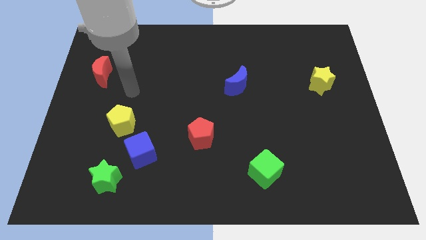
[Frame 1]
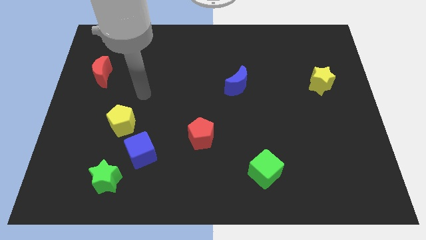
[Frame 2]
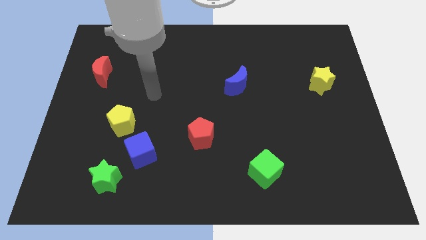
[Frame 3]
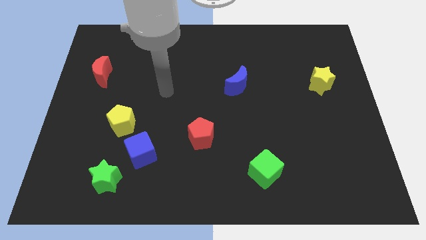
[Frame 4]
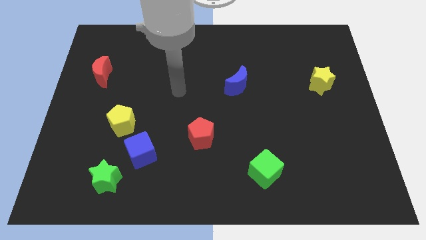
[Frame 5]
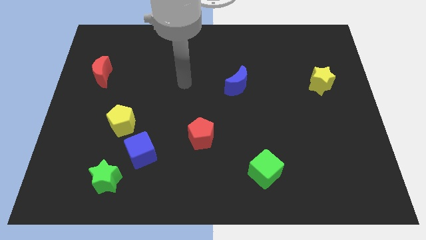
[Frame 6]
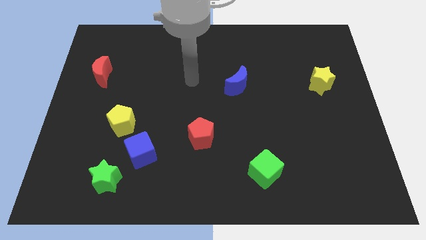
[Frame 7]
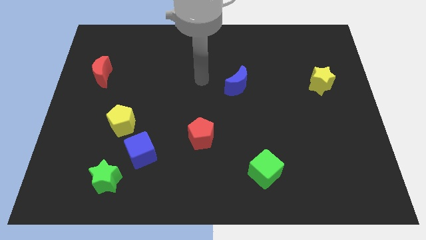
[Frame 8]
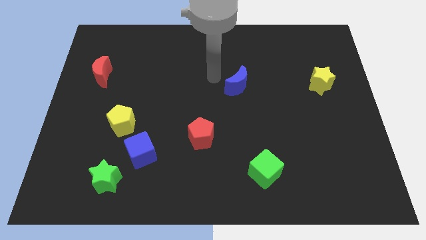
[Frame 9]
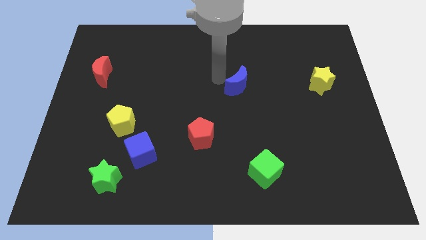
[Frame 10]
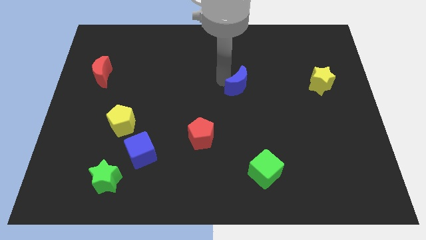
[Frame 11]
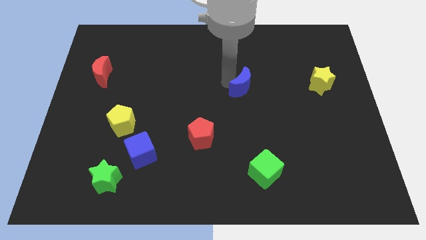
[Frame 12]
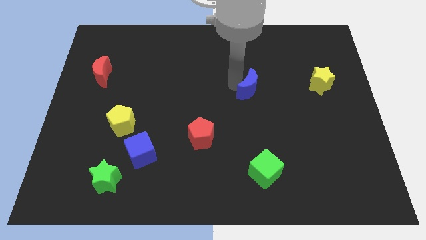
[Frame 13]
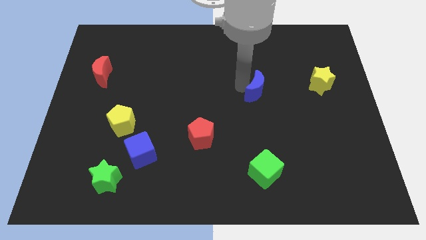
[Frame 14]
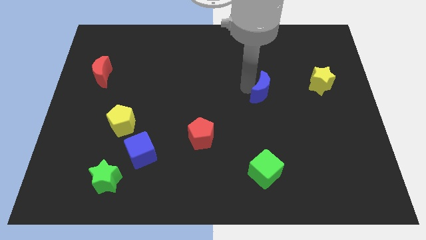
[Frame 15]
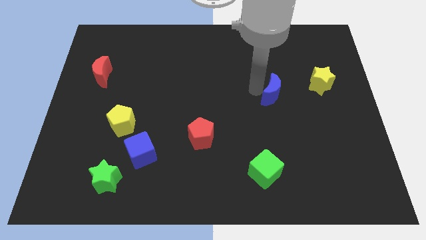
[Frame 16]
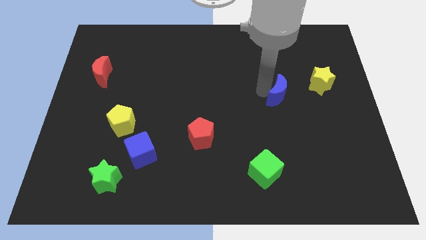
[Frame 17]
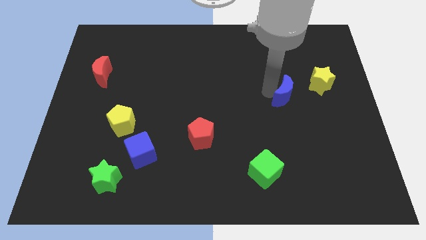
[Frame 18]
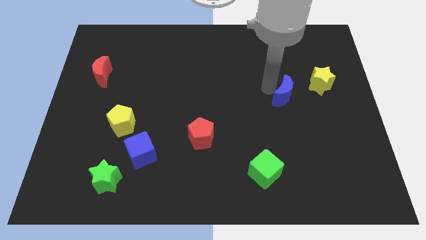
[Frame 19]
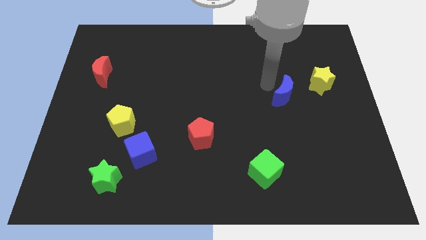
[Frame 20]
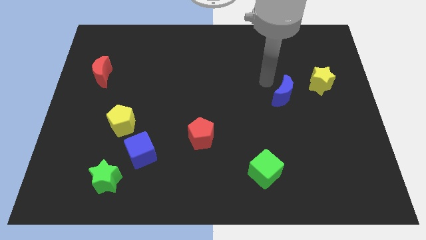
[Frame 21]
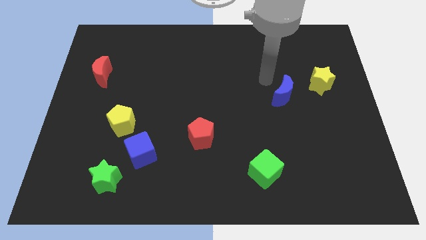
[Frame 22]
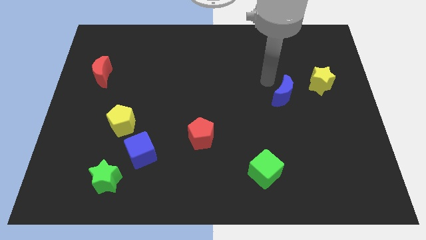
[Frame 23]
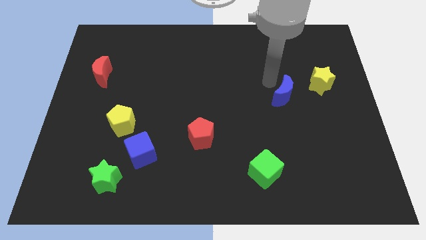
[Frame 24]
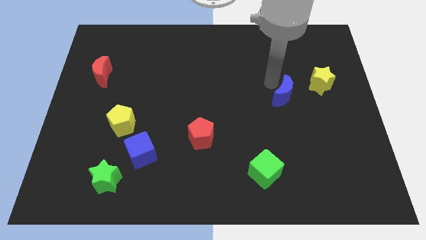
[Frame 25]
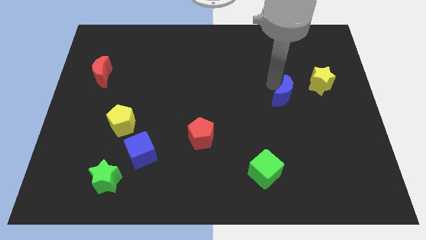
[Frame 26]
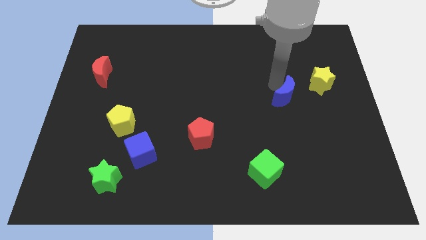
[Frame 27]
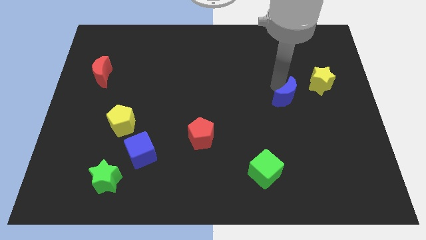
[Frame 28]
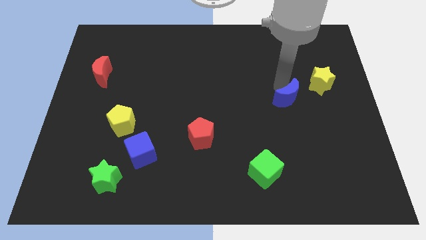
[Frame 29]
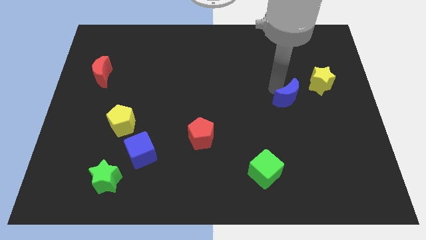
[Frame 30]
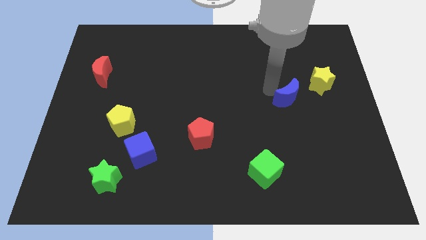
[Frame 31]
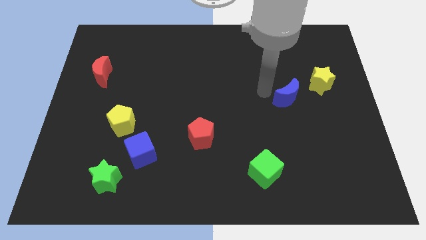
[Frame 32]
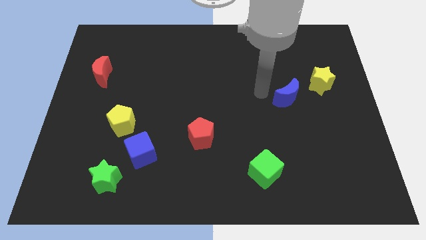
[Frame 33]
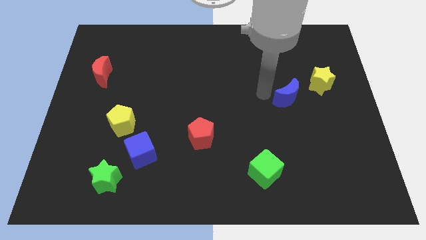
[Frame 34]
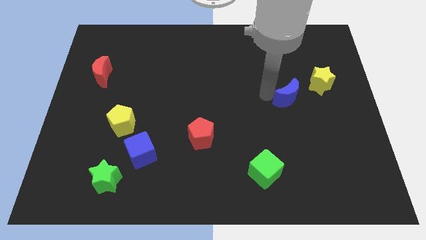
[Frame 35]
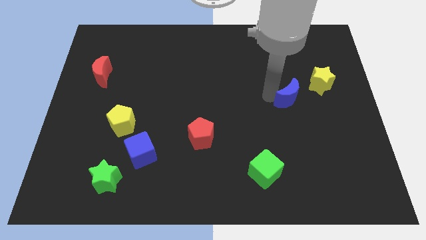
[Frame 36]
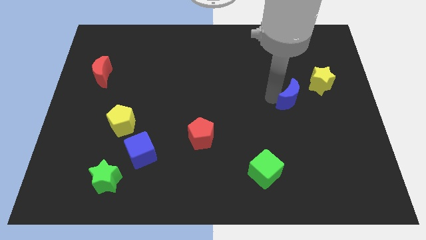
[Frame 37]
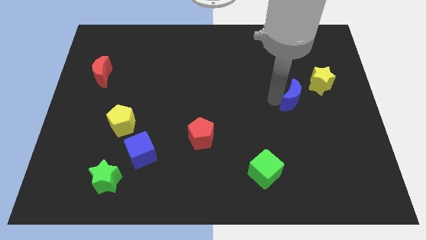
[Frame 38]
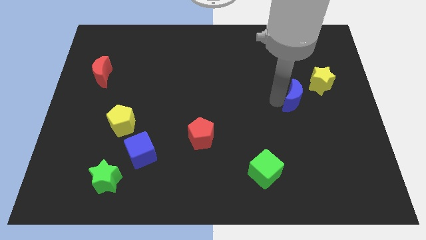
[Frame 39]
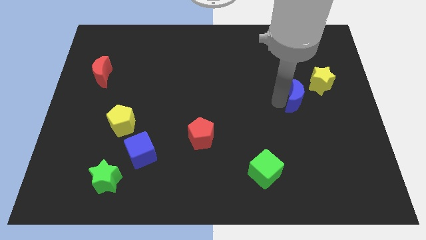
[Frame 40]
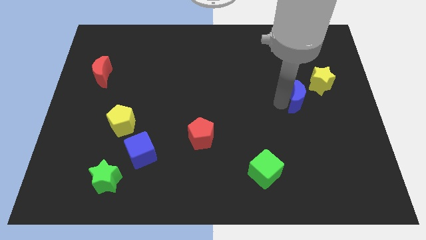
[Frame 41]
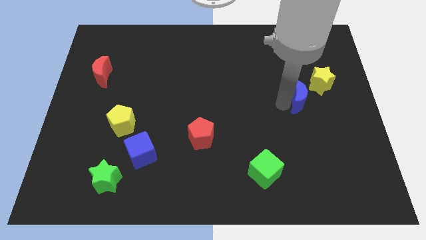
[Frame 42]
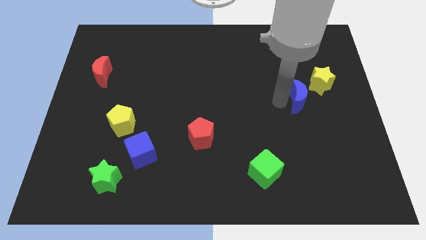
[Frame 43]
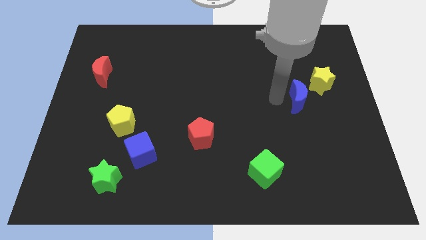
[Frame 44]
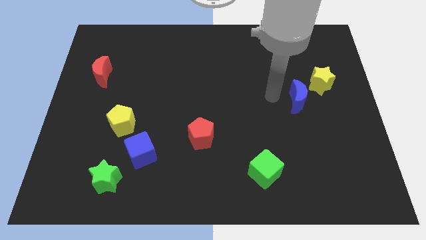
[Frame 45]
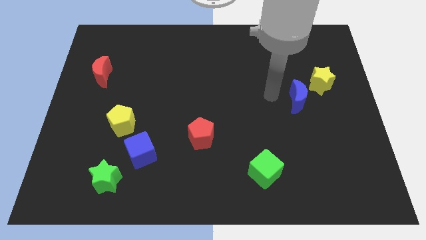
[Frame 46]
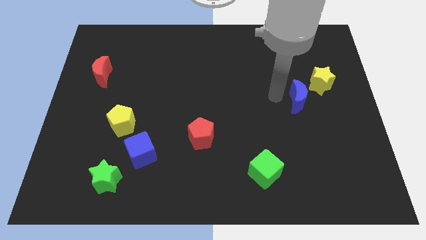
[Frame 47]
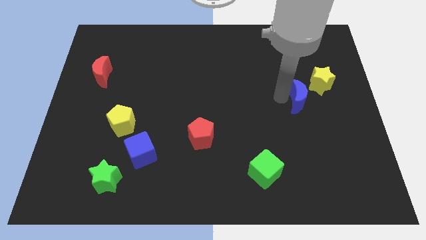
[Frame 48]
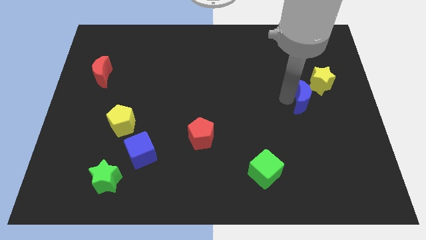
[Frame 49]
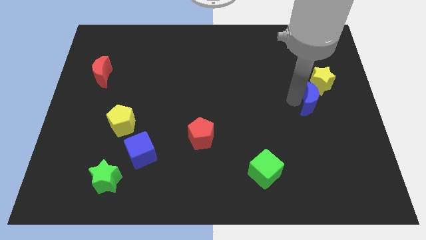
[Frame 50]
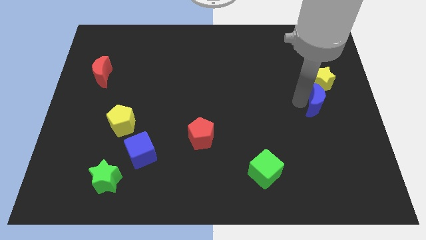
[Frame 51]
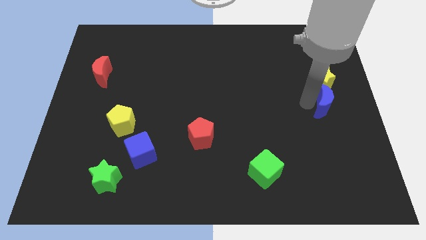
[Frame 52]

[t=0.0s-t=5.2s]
move the blue moon to the right side

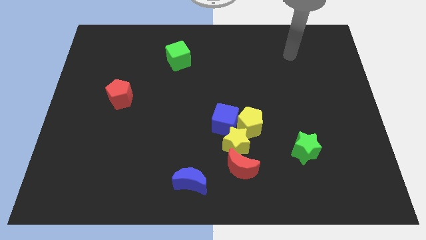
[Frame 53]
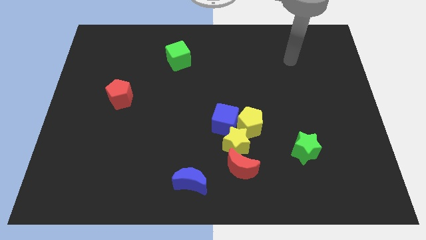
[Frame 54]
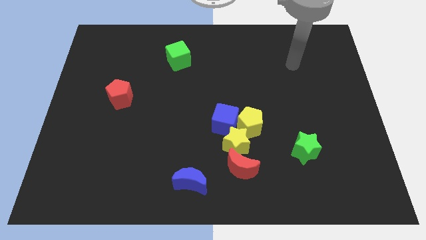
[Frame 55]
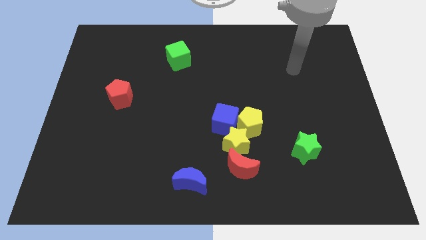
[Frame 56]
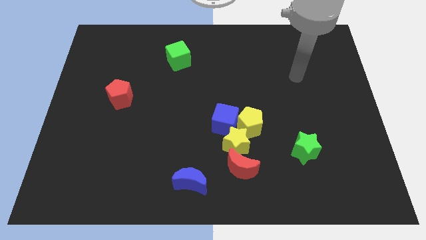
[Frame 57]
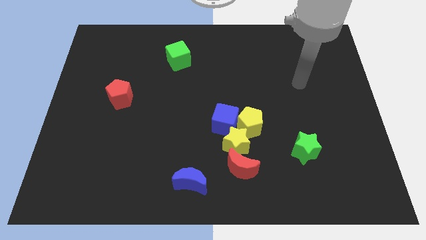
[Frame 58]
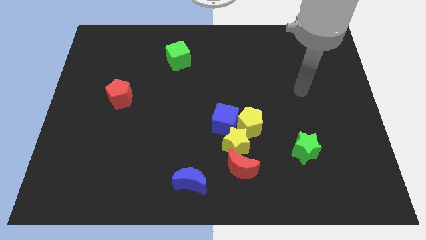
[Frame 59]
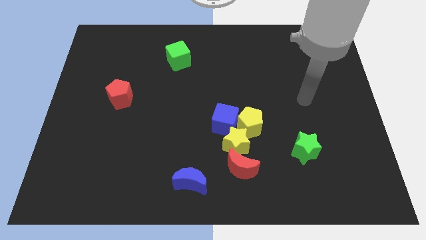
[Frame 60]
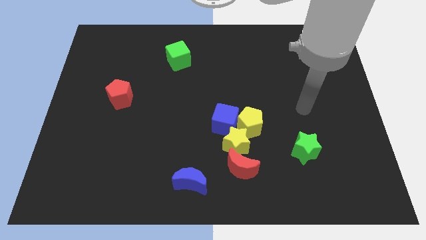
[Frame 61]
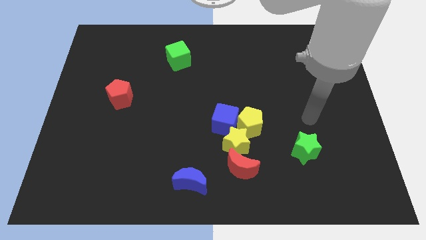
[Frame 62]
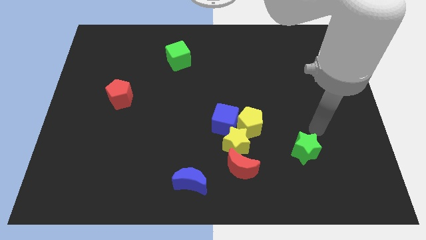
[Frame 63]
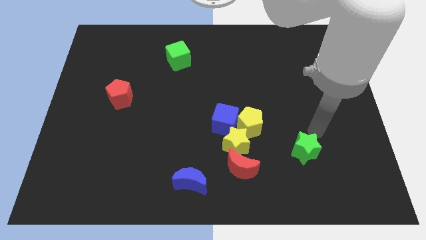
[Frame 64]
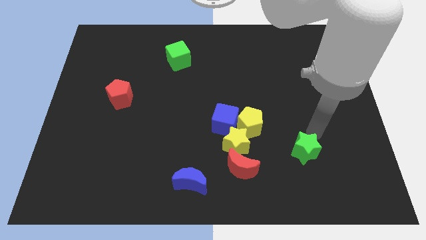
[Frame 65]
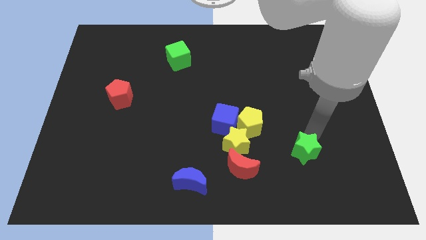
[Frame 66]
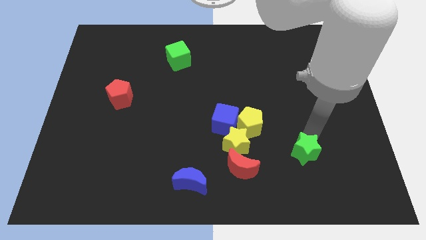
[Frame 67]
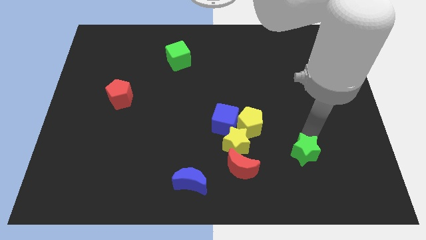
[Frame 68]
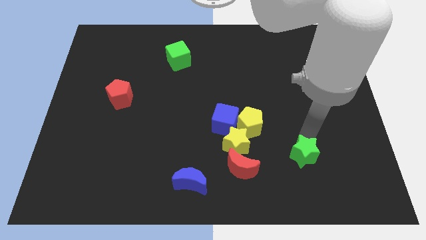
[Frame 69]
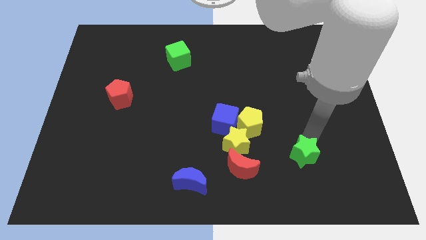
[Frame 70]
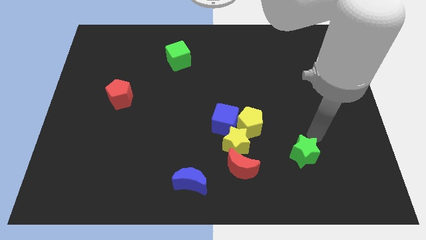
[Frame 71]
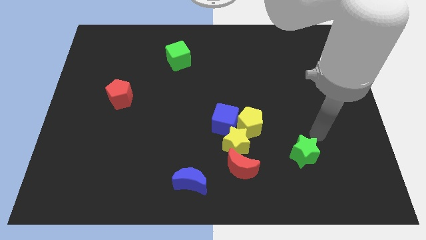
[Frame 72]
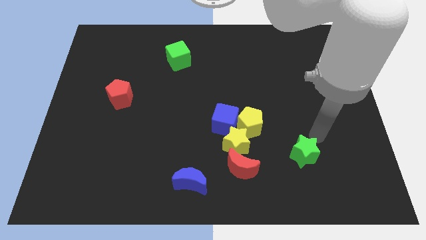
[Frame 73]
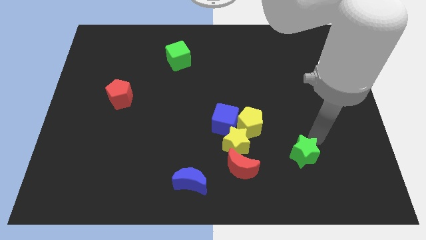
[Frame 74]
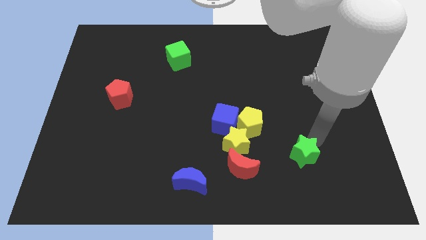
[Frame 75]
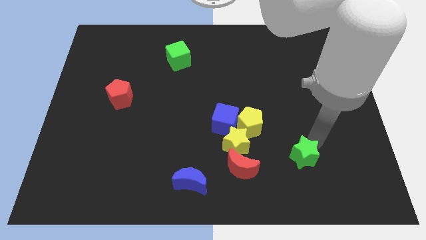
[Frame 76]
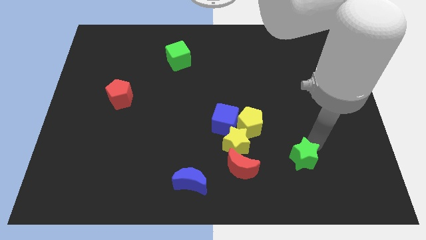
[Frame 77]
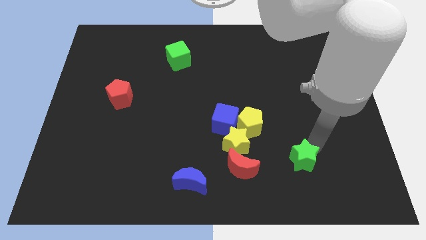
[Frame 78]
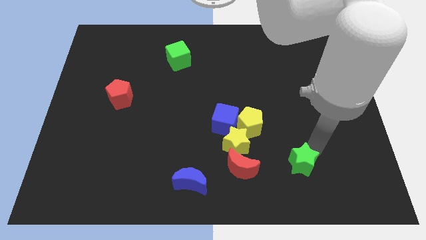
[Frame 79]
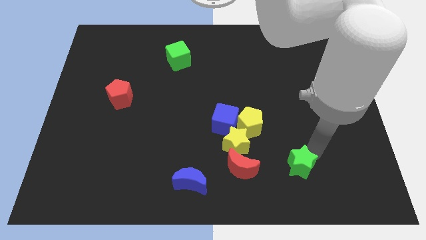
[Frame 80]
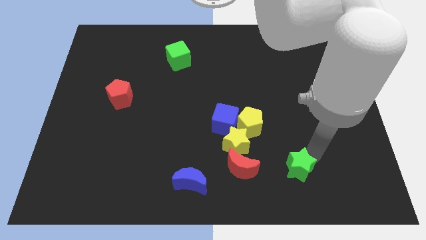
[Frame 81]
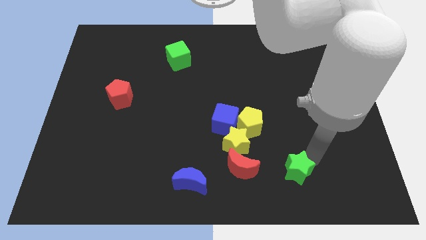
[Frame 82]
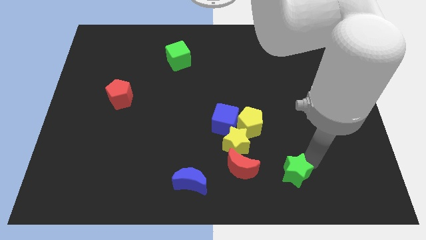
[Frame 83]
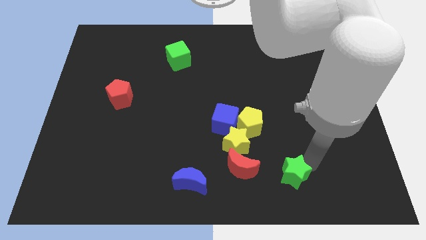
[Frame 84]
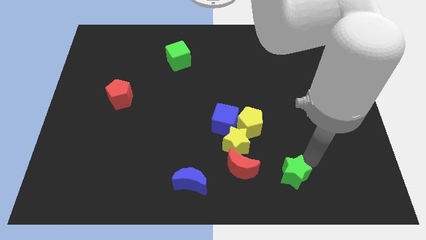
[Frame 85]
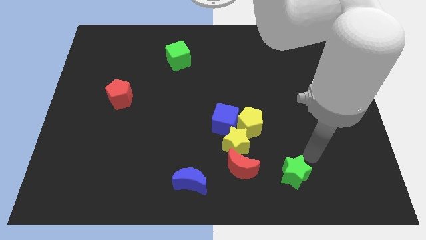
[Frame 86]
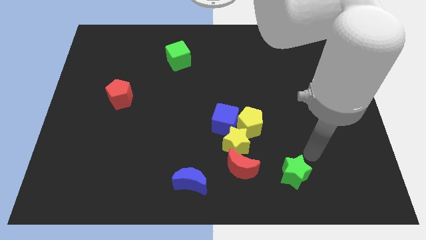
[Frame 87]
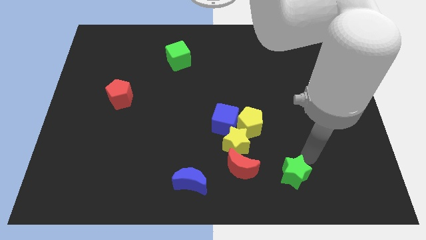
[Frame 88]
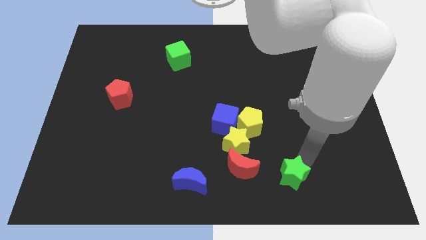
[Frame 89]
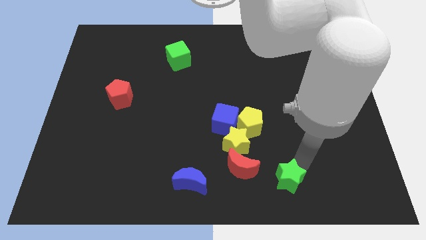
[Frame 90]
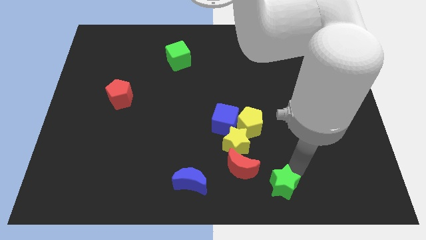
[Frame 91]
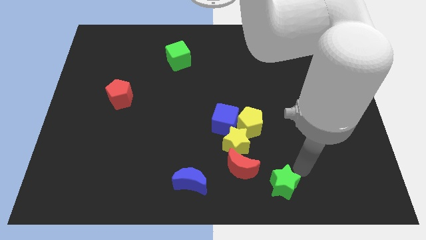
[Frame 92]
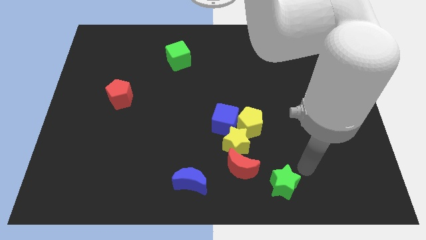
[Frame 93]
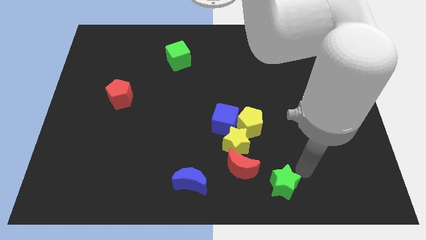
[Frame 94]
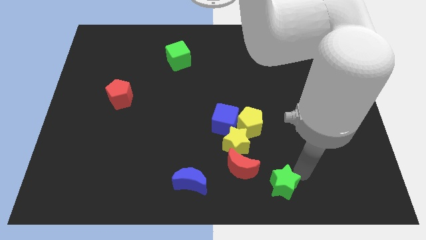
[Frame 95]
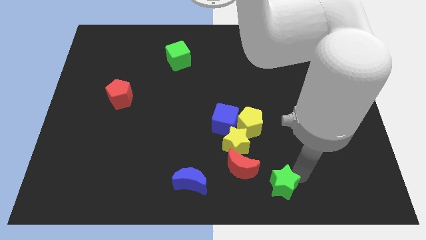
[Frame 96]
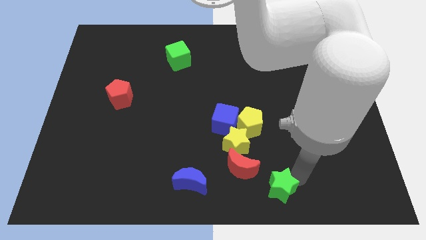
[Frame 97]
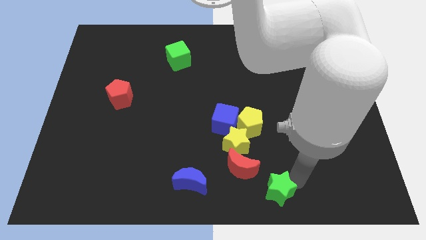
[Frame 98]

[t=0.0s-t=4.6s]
move the green star to the bottom
